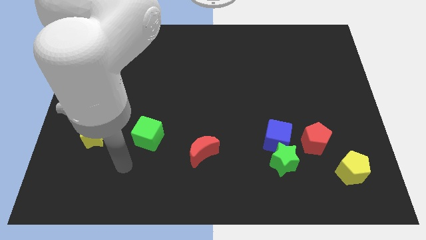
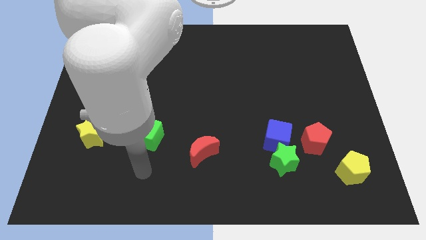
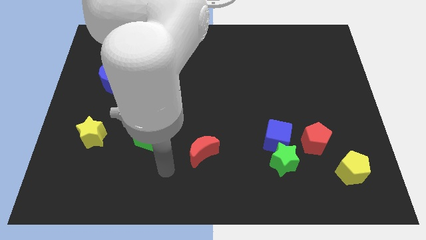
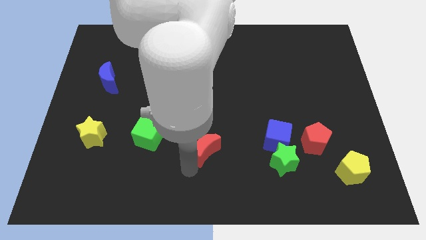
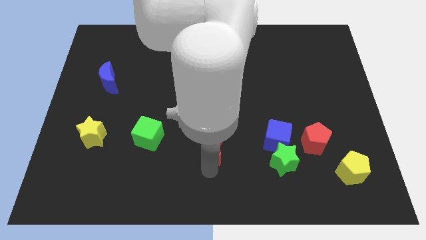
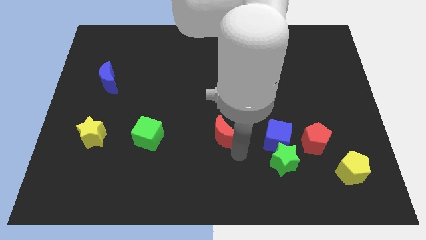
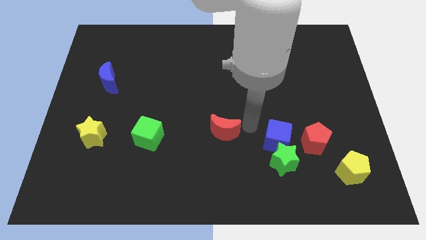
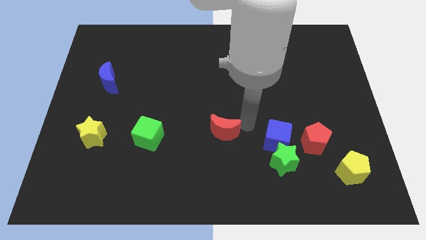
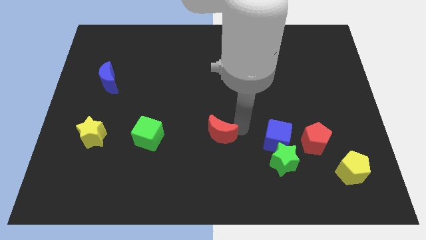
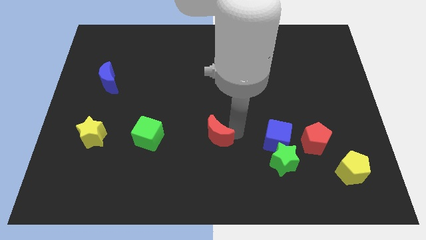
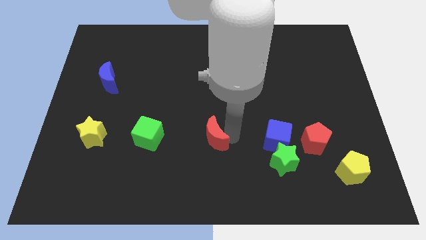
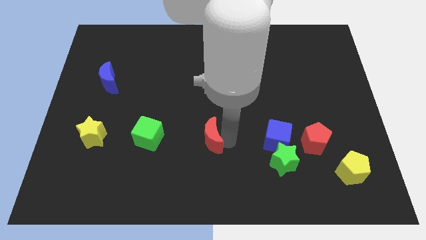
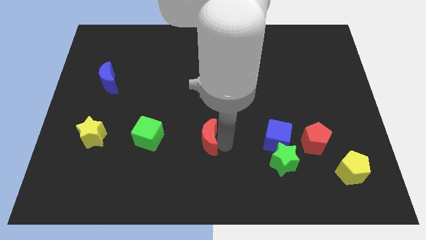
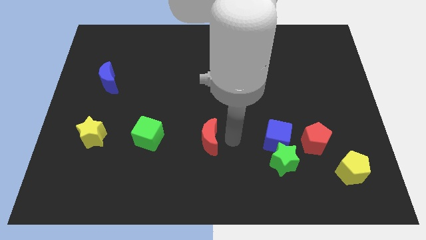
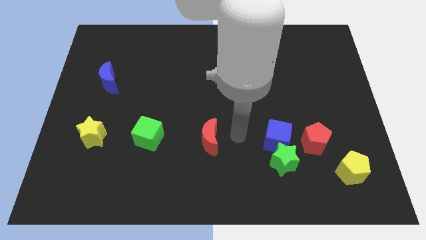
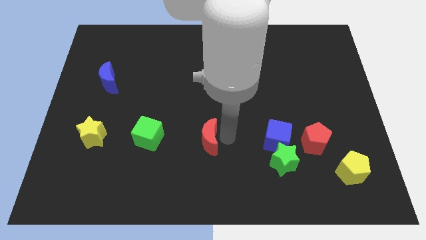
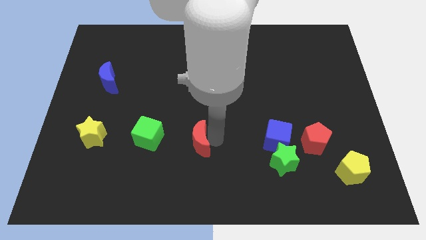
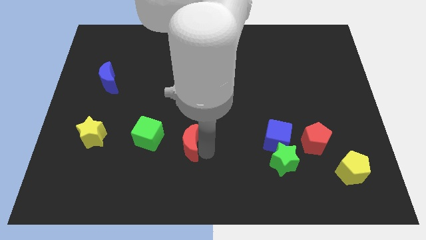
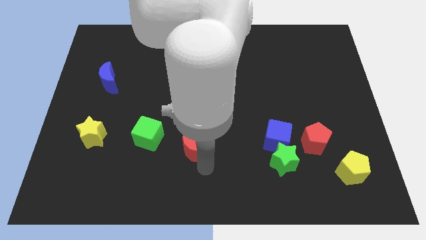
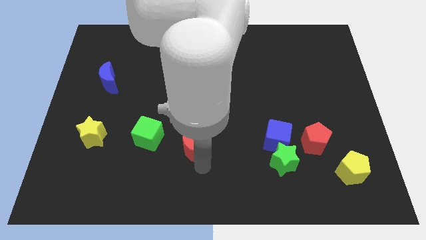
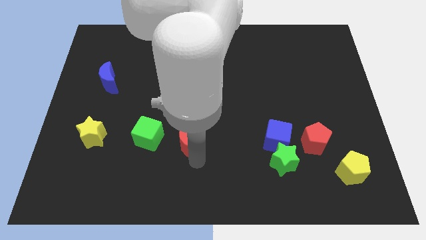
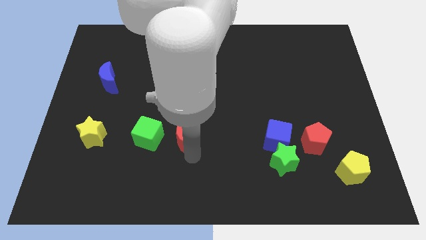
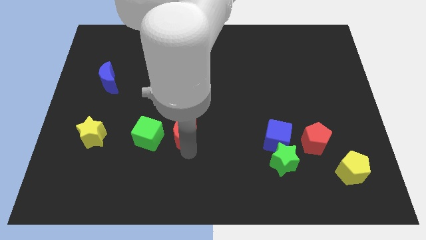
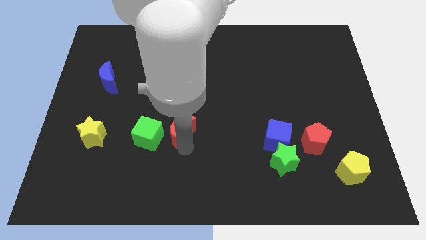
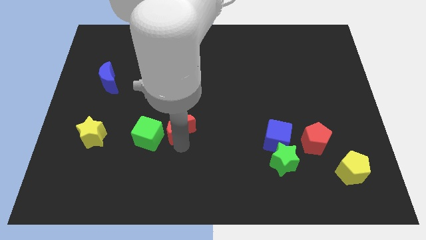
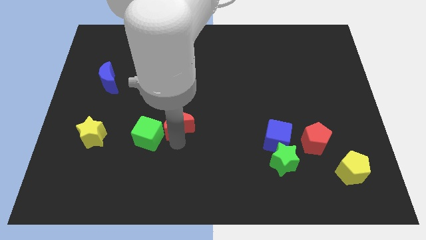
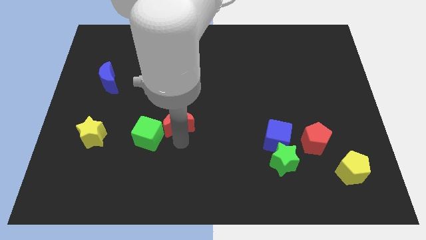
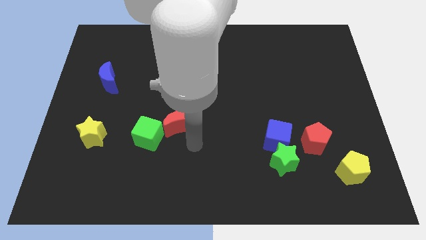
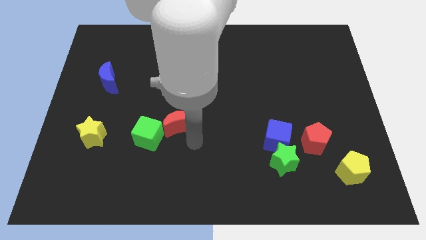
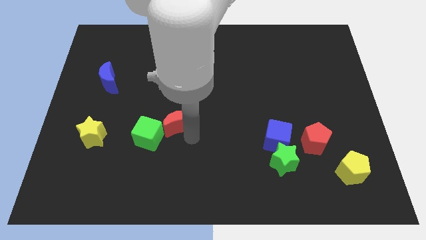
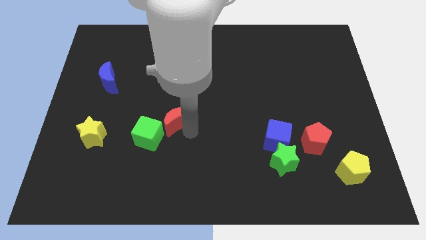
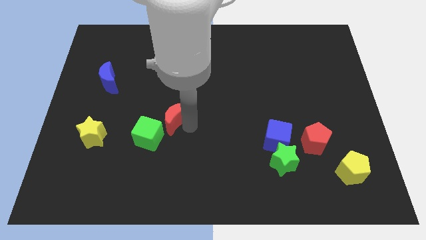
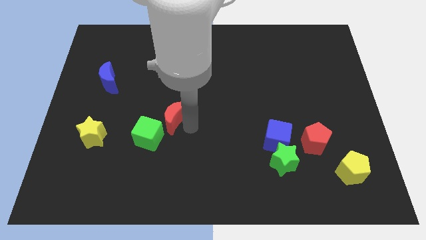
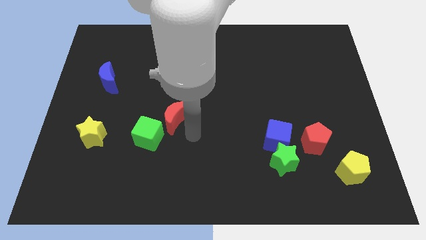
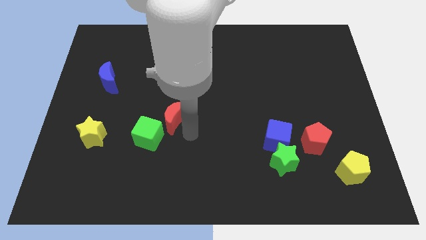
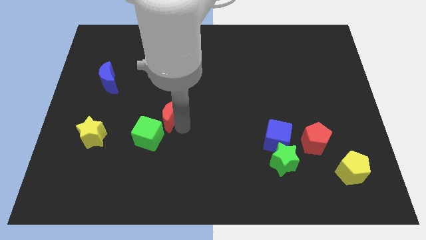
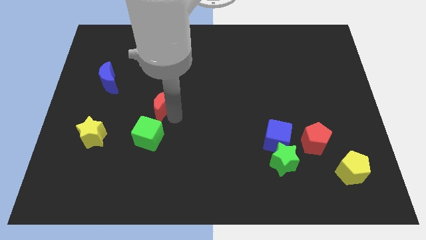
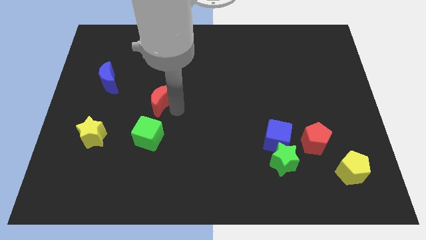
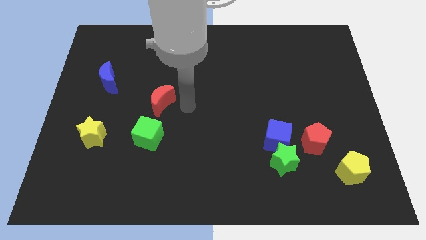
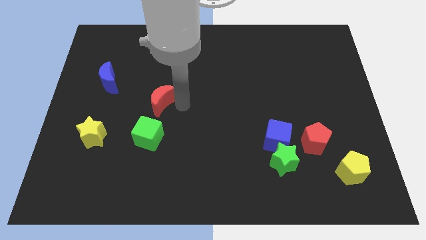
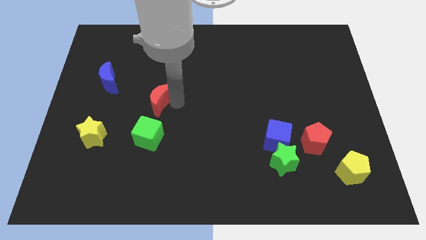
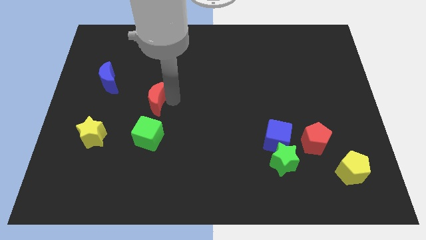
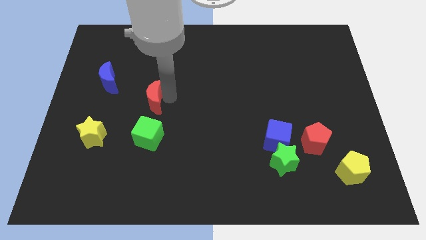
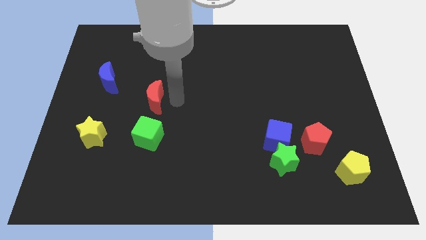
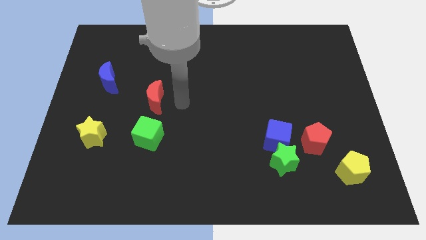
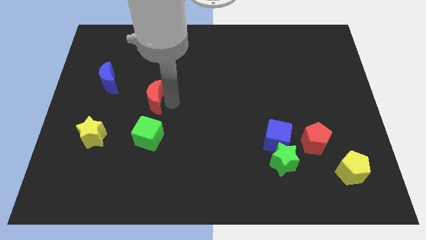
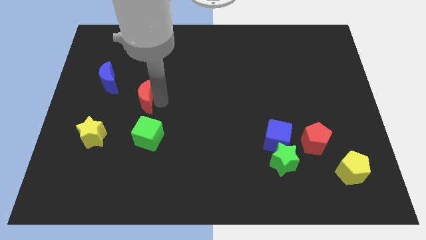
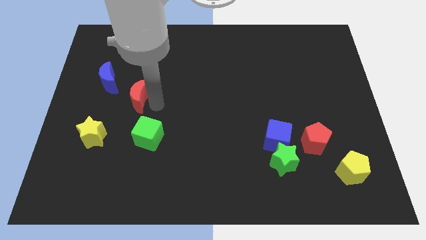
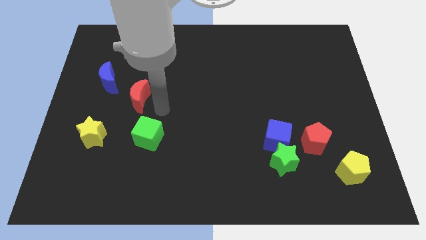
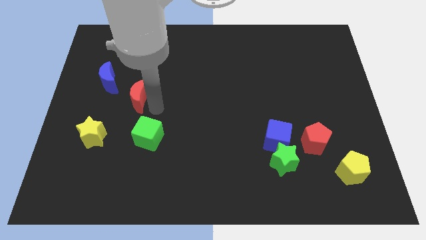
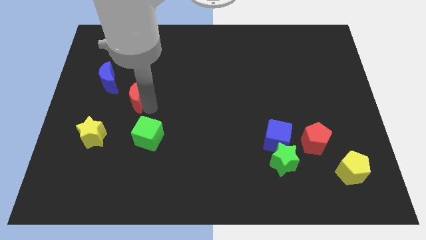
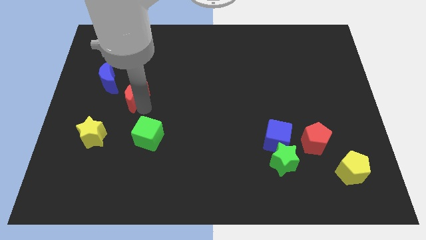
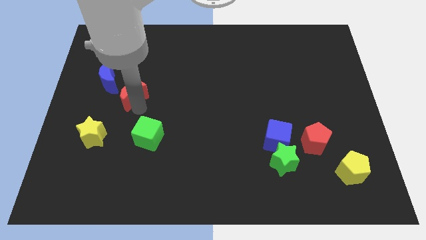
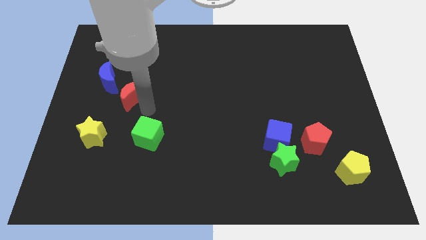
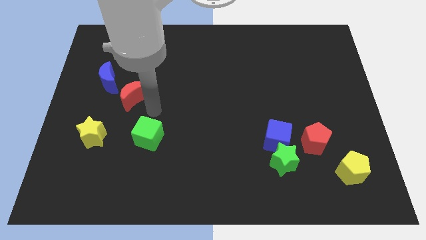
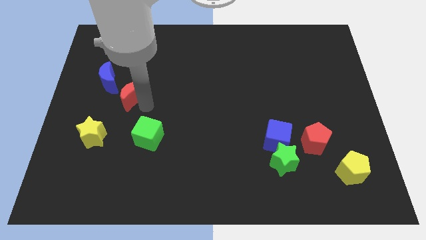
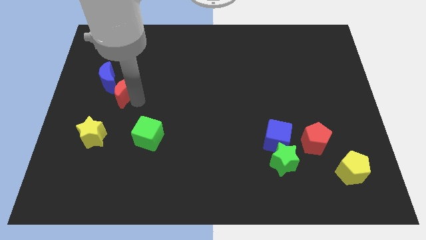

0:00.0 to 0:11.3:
put the red moon close to the blue moon

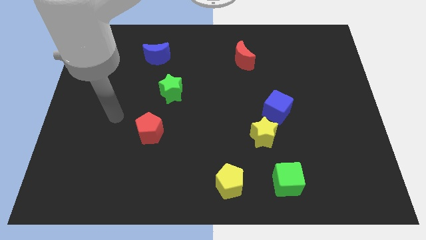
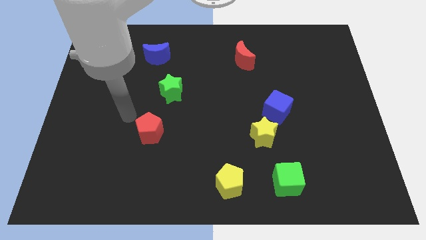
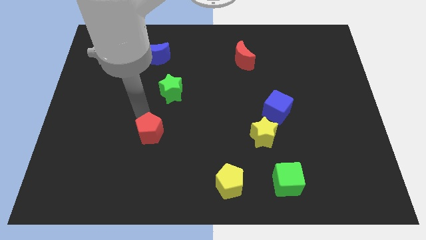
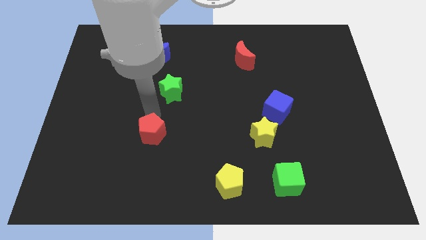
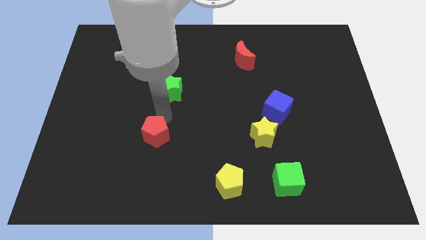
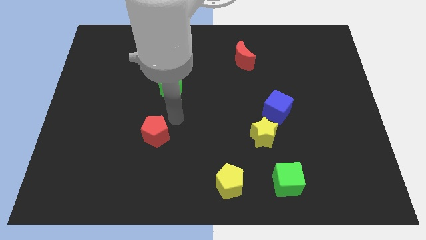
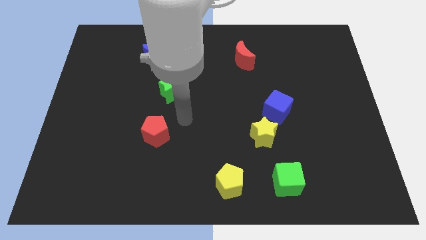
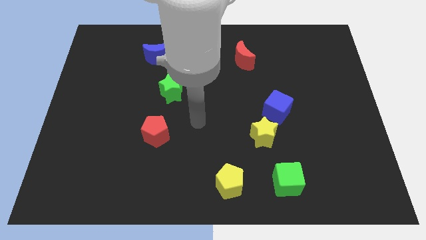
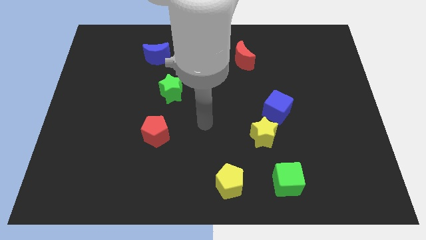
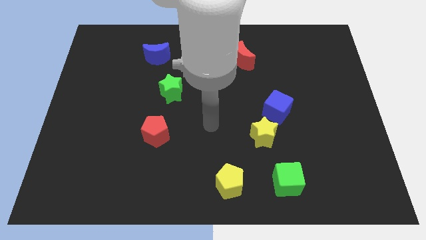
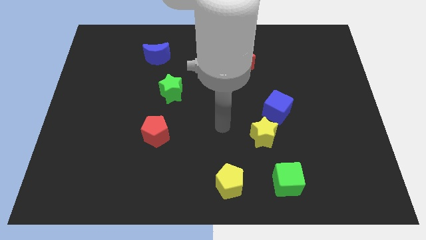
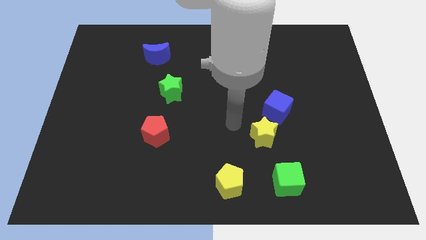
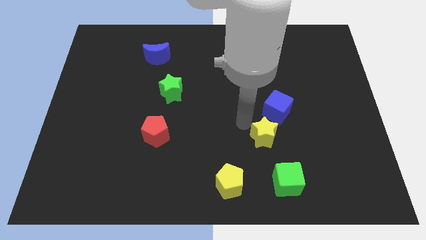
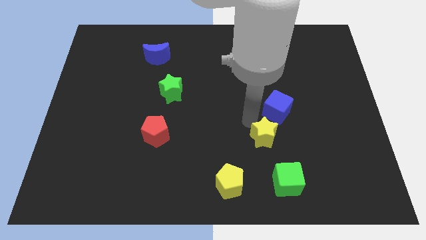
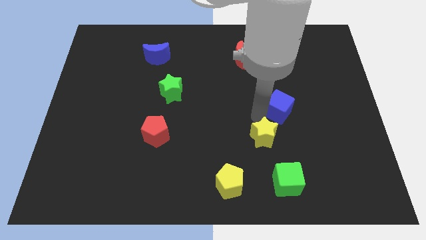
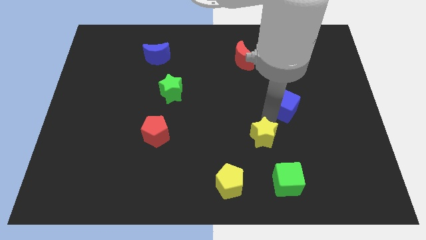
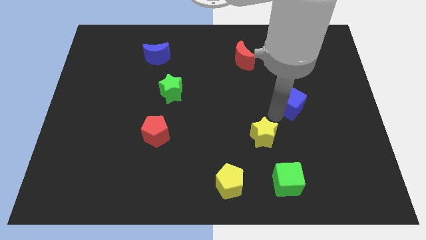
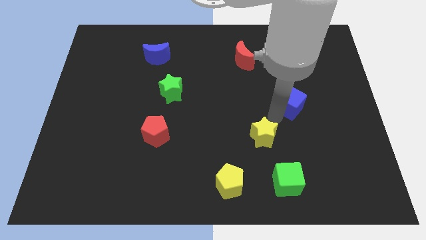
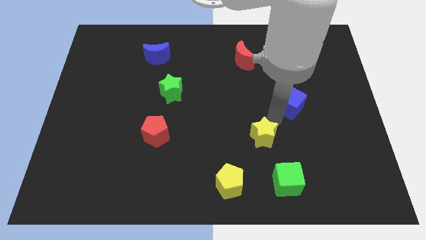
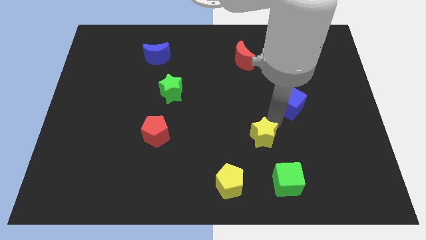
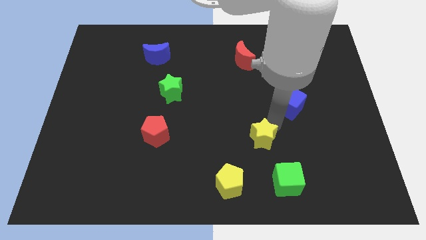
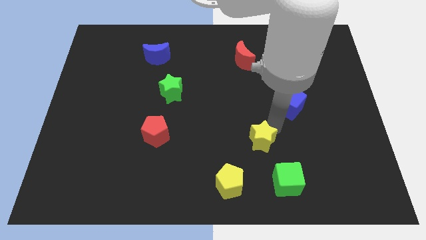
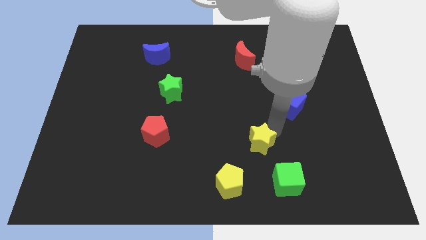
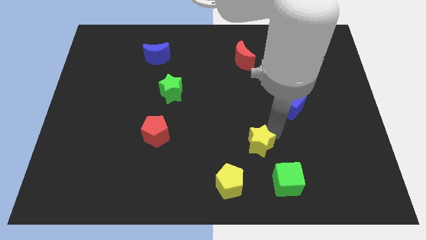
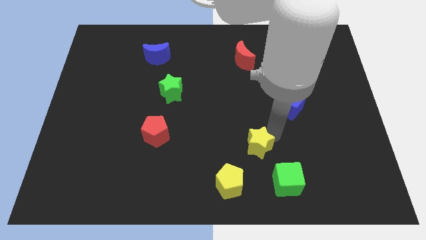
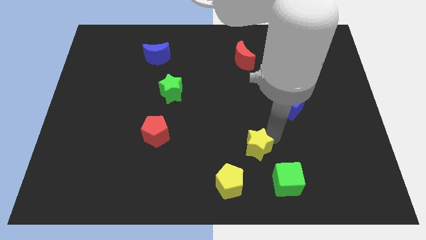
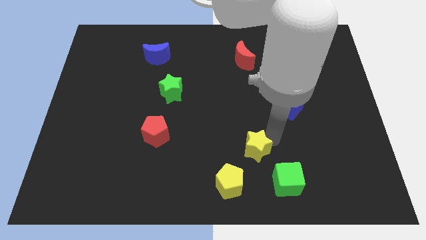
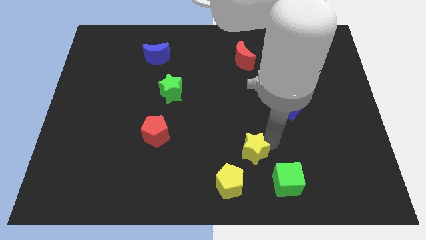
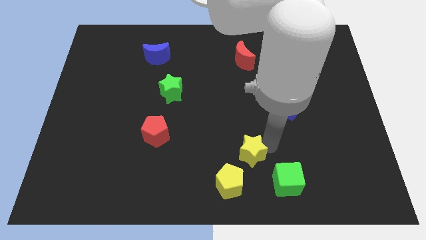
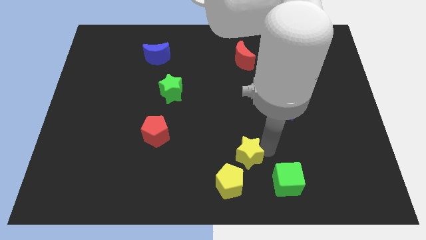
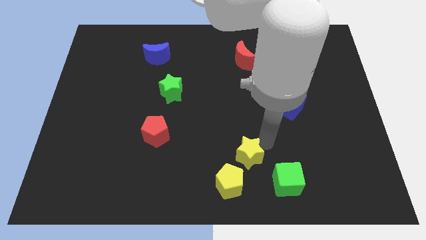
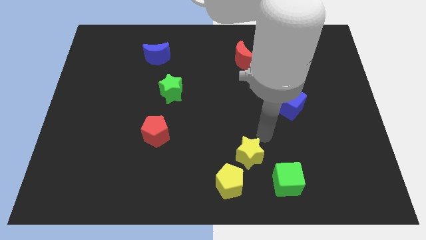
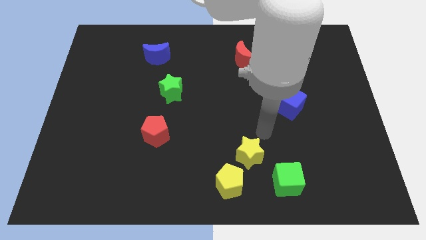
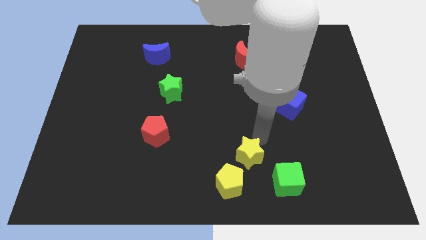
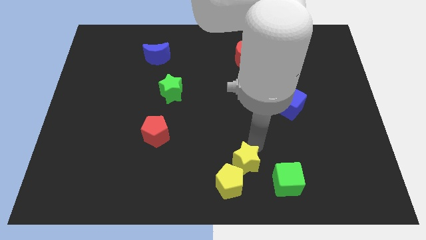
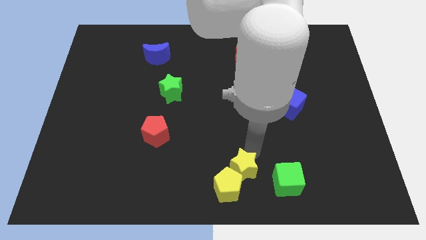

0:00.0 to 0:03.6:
slide the yellow star next to the yellow pentagon
